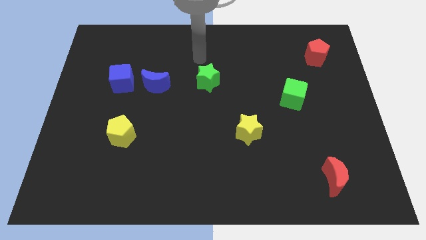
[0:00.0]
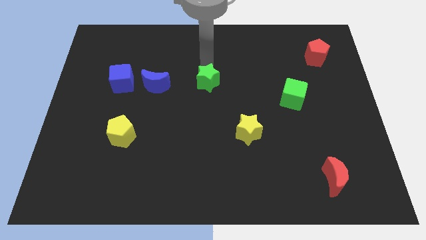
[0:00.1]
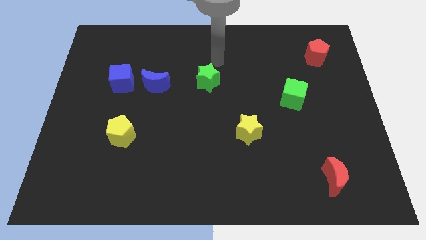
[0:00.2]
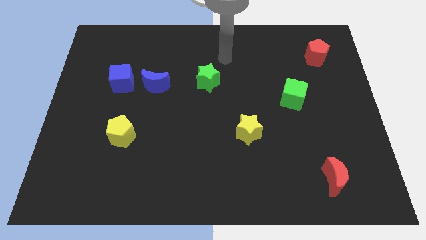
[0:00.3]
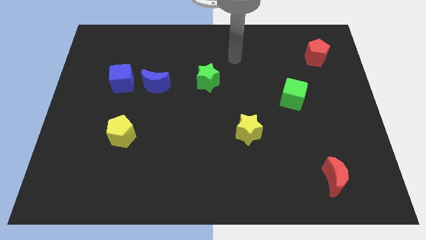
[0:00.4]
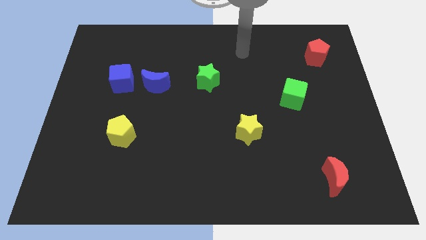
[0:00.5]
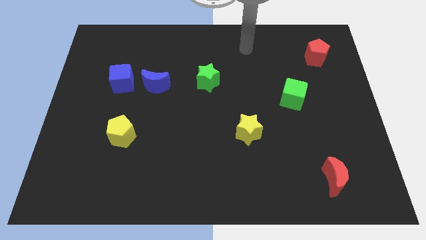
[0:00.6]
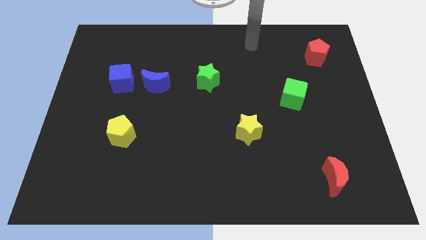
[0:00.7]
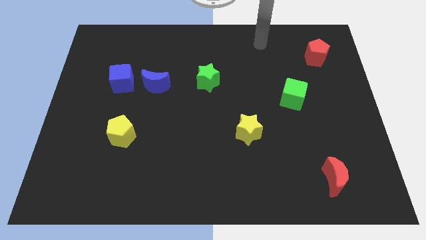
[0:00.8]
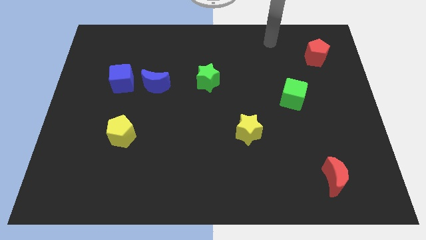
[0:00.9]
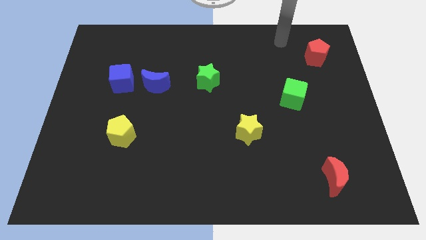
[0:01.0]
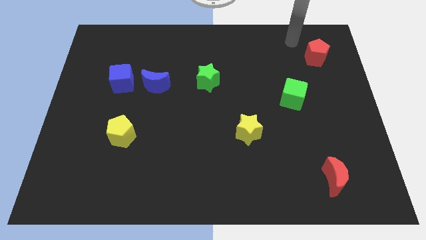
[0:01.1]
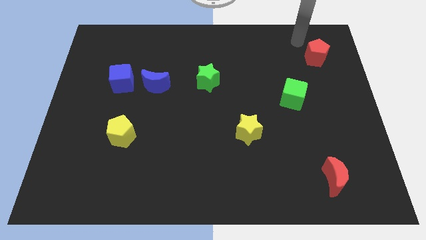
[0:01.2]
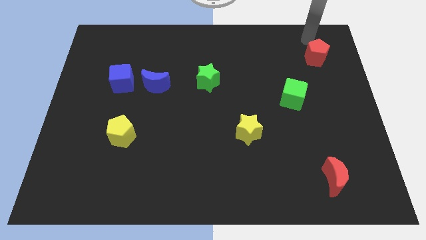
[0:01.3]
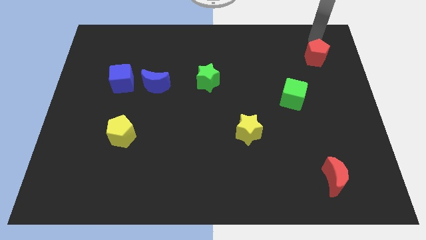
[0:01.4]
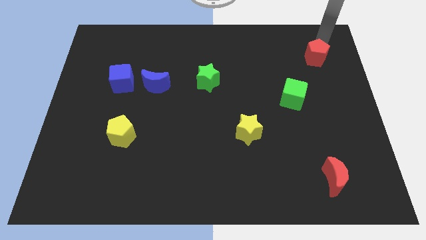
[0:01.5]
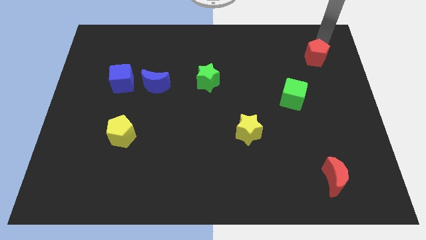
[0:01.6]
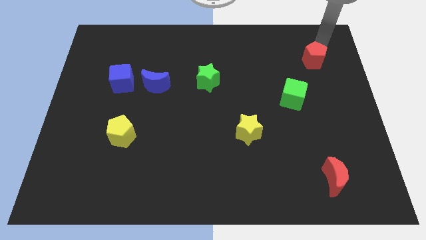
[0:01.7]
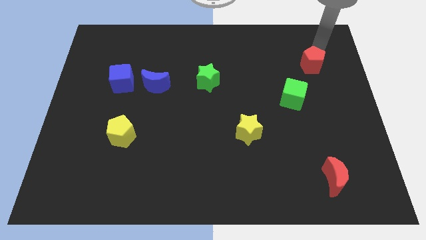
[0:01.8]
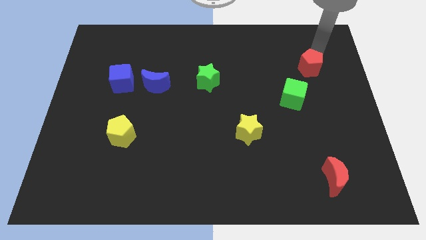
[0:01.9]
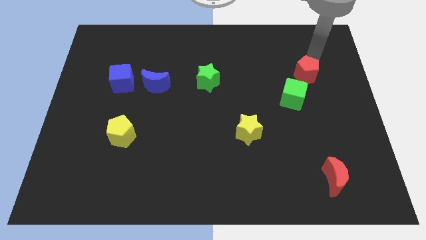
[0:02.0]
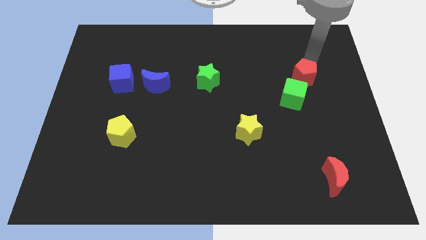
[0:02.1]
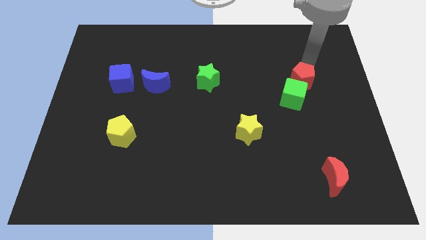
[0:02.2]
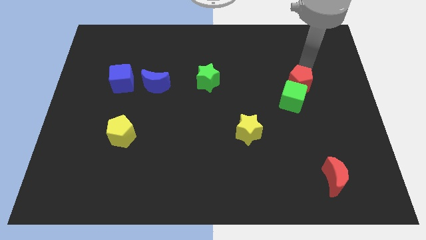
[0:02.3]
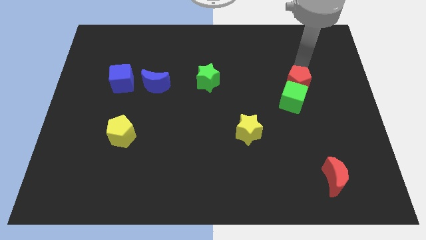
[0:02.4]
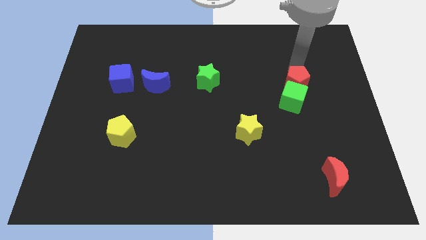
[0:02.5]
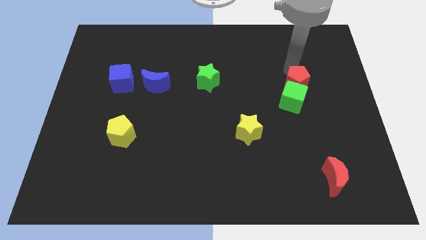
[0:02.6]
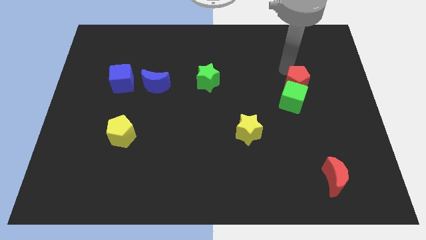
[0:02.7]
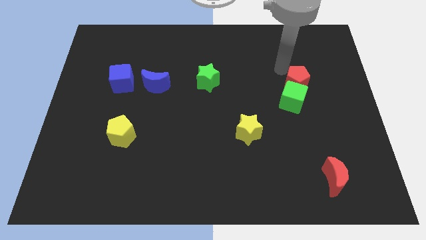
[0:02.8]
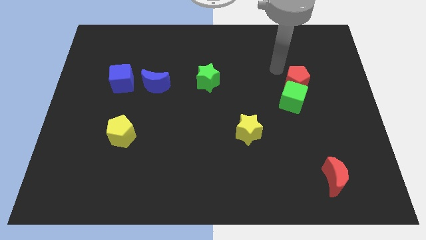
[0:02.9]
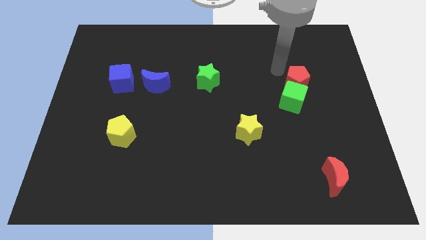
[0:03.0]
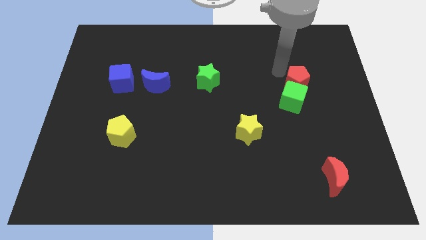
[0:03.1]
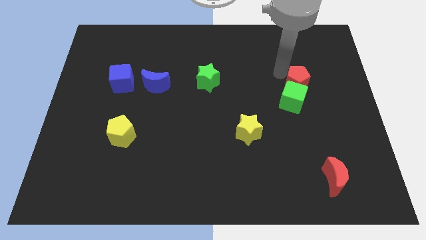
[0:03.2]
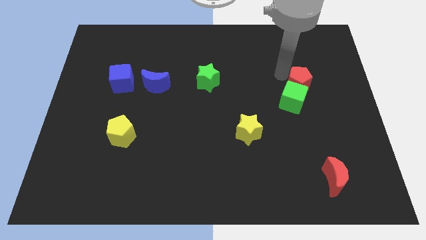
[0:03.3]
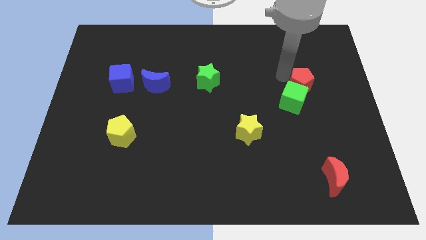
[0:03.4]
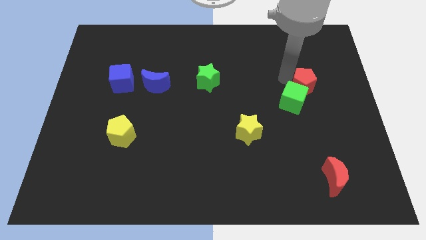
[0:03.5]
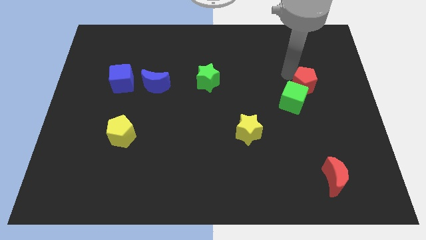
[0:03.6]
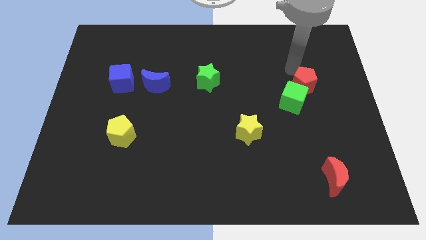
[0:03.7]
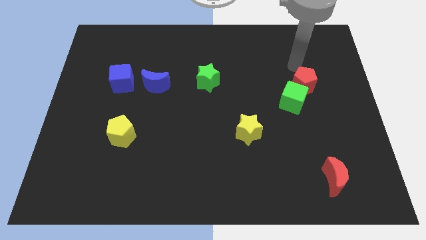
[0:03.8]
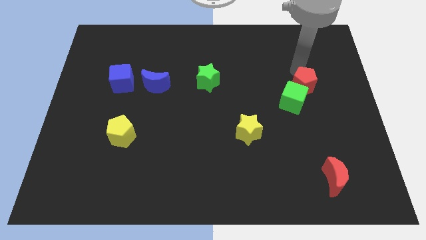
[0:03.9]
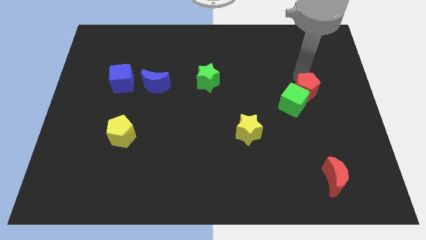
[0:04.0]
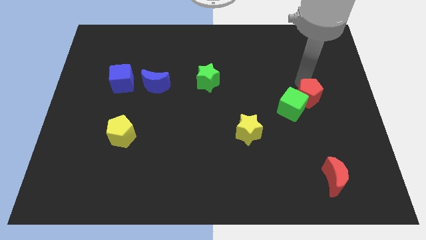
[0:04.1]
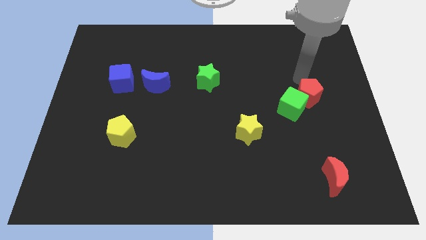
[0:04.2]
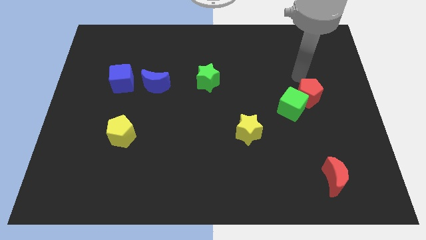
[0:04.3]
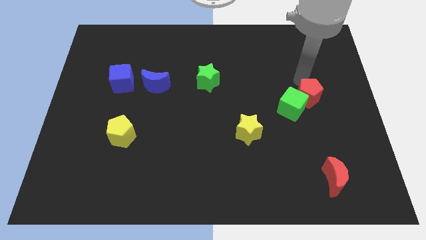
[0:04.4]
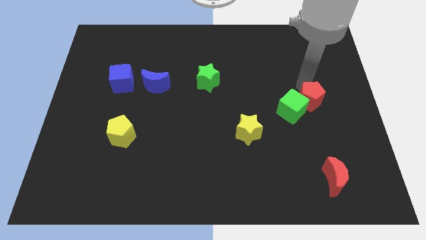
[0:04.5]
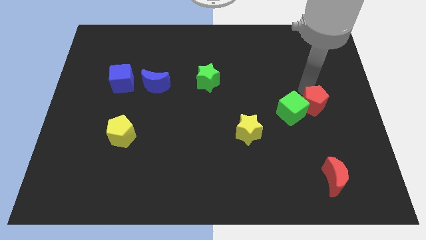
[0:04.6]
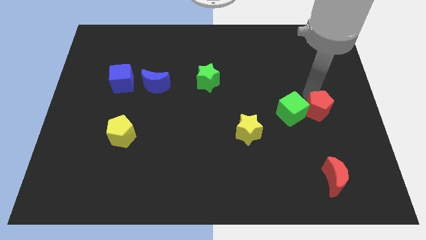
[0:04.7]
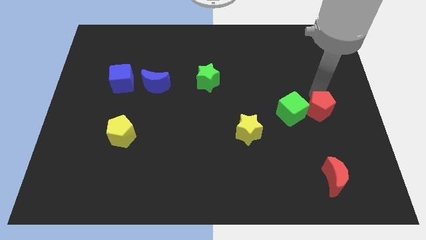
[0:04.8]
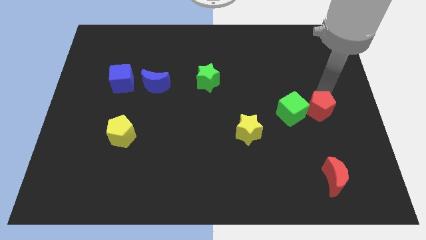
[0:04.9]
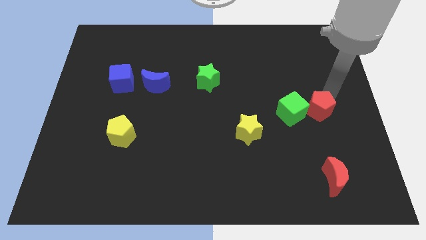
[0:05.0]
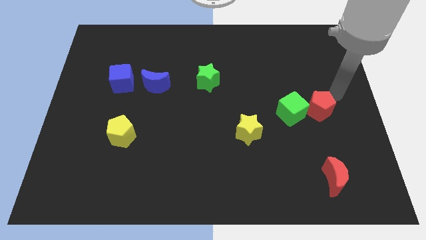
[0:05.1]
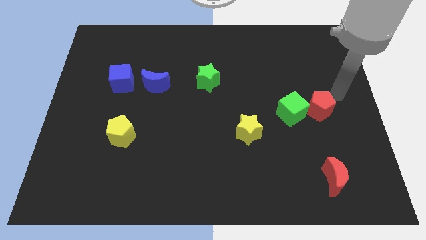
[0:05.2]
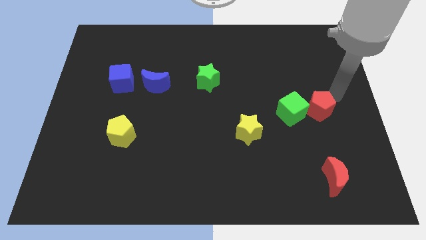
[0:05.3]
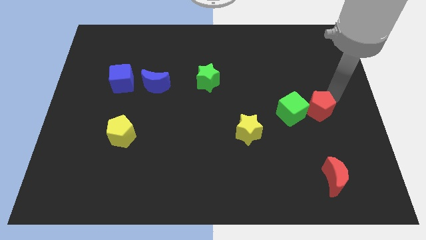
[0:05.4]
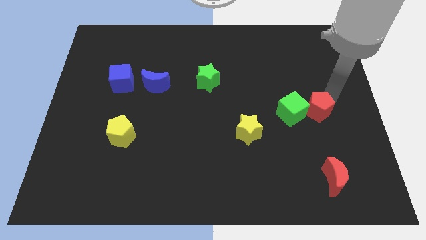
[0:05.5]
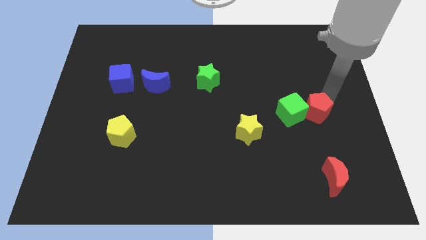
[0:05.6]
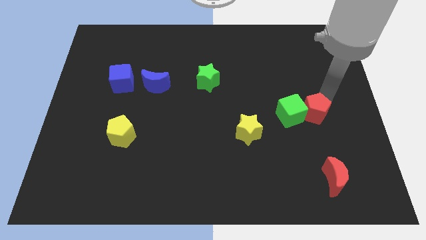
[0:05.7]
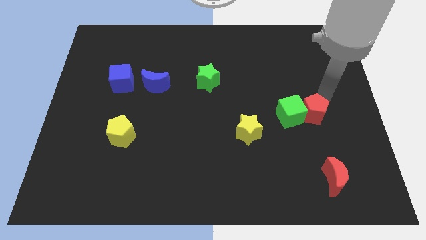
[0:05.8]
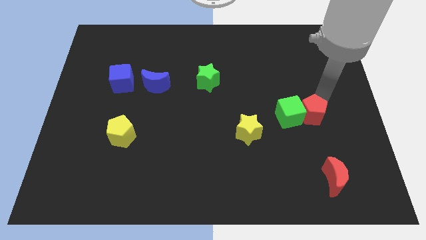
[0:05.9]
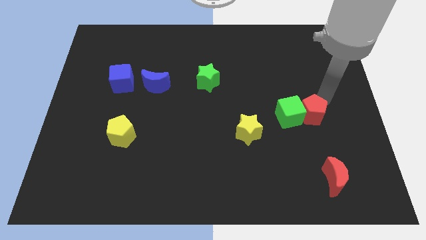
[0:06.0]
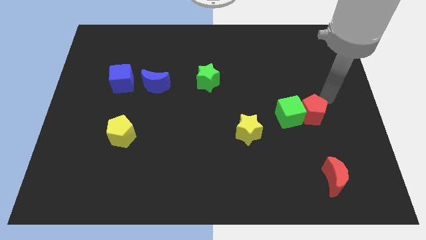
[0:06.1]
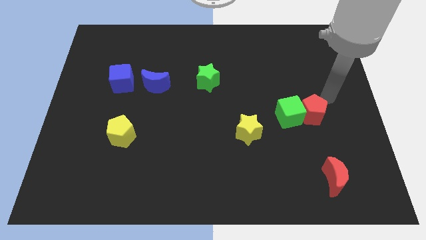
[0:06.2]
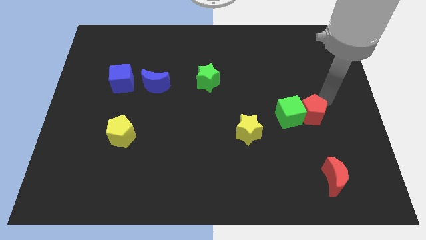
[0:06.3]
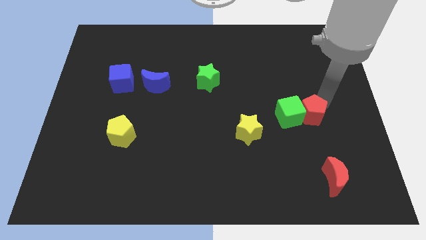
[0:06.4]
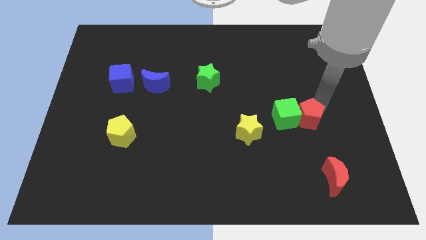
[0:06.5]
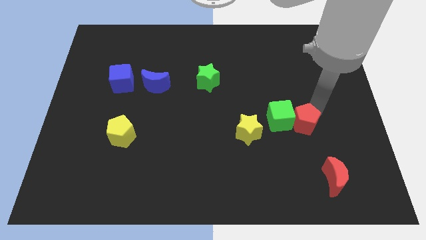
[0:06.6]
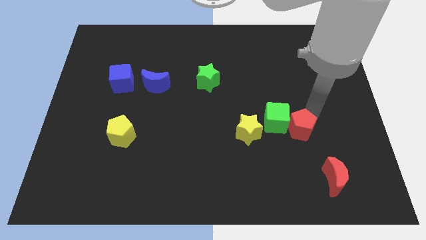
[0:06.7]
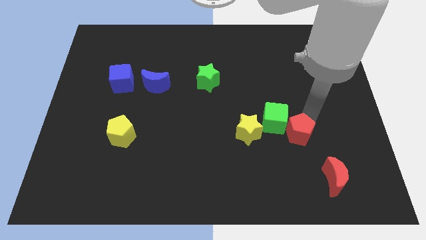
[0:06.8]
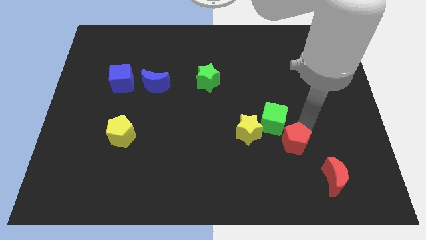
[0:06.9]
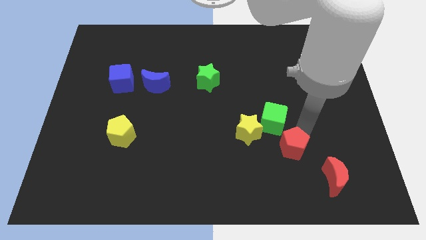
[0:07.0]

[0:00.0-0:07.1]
push the red pentagon diagonally down and to the right of the yellow star
